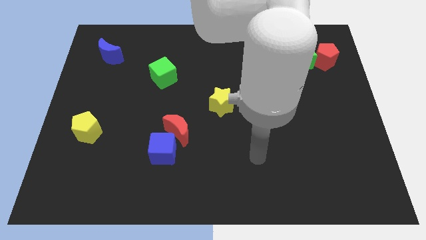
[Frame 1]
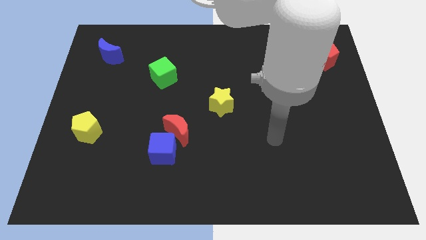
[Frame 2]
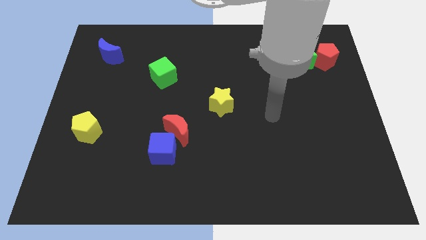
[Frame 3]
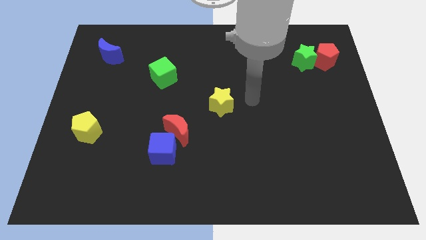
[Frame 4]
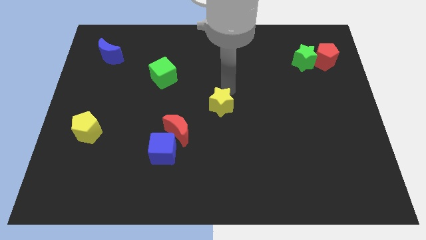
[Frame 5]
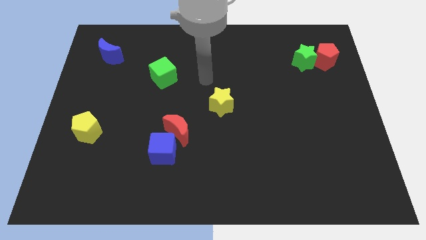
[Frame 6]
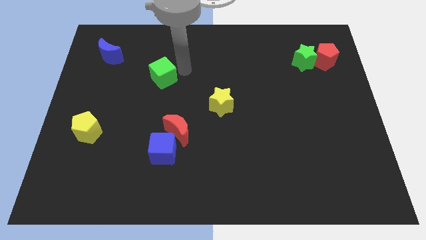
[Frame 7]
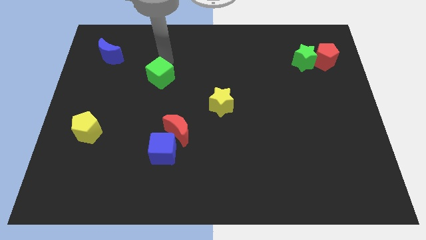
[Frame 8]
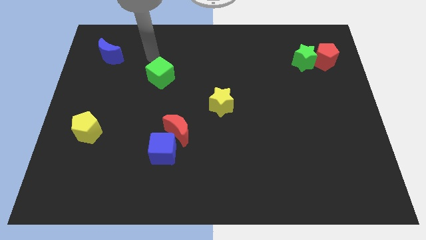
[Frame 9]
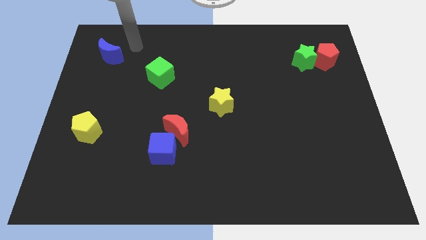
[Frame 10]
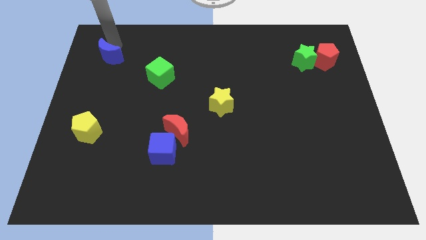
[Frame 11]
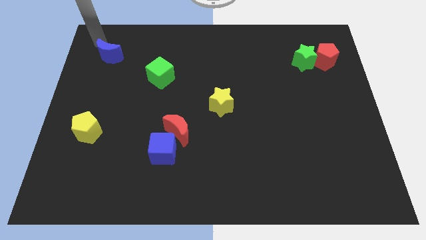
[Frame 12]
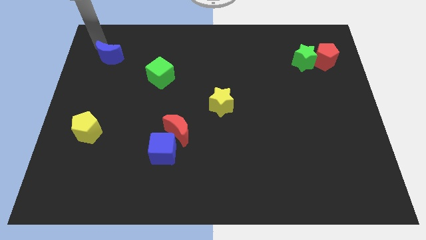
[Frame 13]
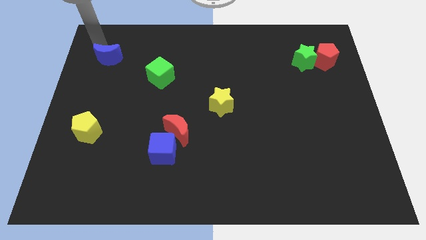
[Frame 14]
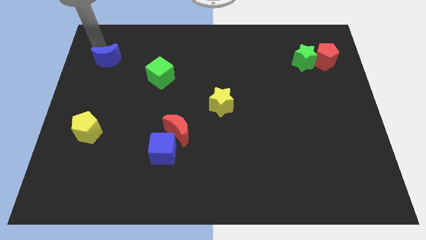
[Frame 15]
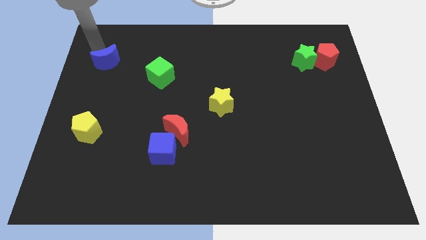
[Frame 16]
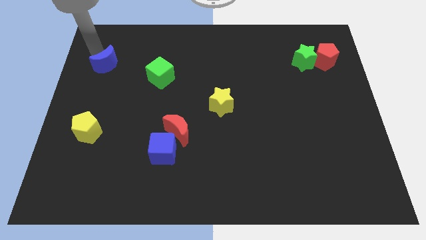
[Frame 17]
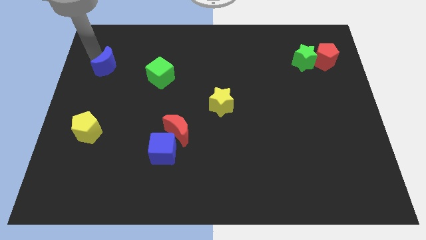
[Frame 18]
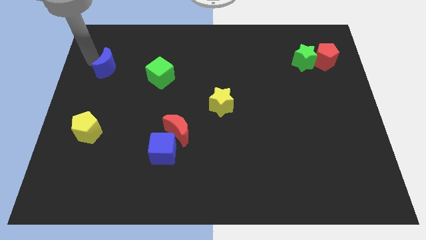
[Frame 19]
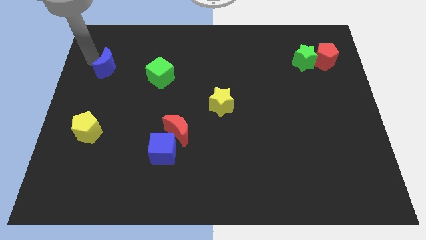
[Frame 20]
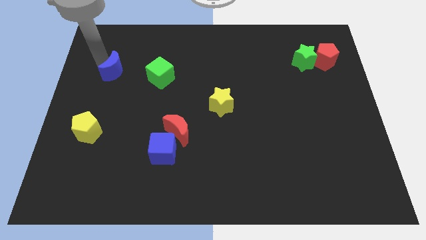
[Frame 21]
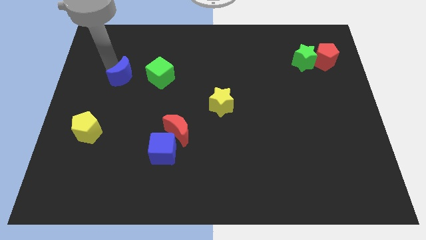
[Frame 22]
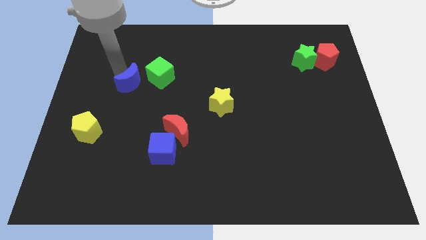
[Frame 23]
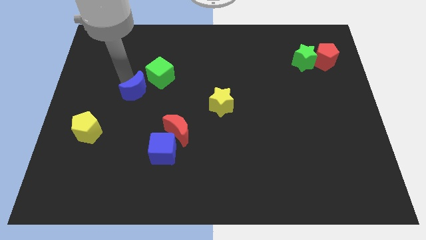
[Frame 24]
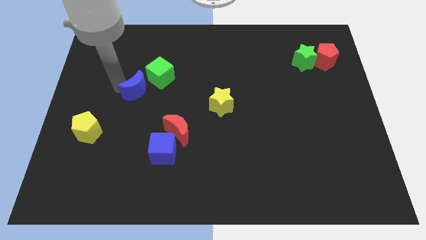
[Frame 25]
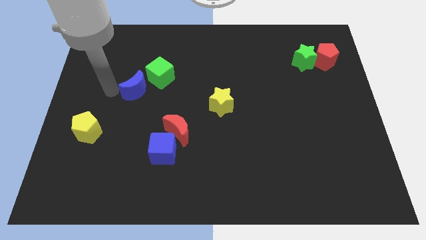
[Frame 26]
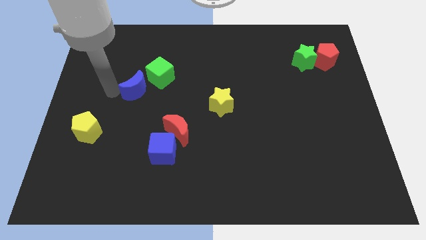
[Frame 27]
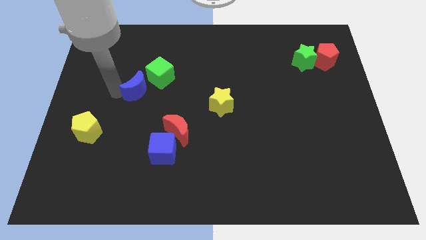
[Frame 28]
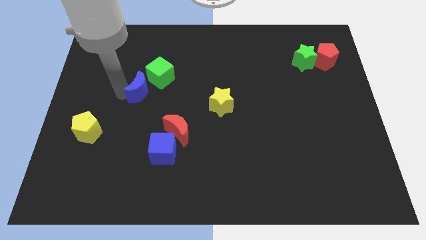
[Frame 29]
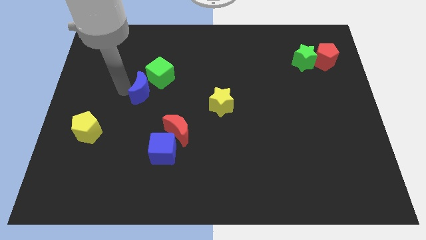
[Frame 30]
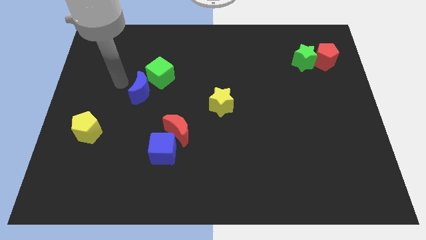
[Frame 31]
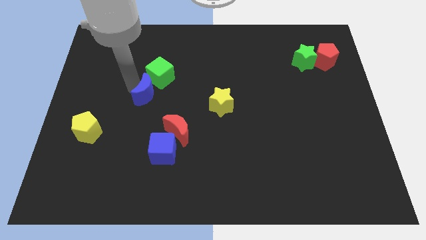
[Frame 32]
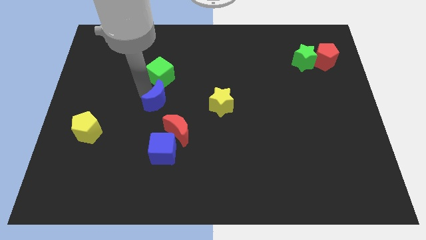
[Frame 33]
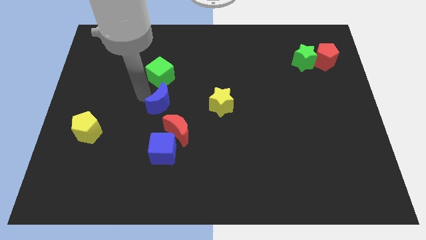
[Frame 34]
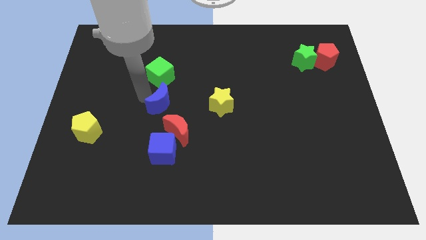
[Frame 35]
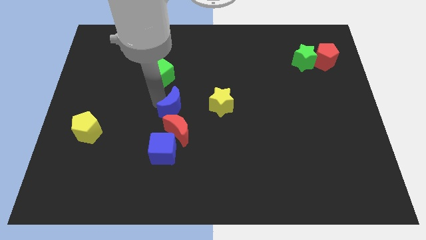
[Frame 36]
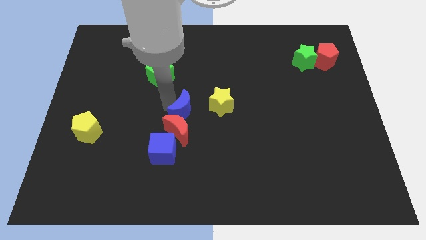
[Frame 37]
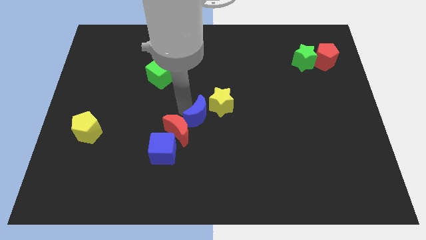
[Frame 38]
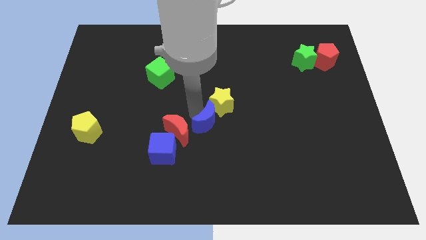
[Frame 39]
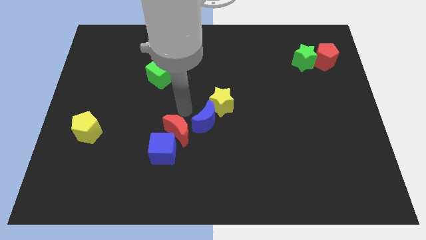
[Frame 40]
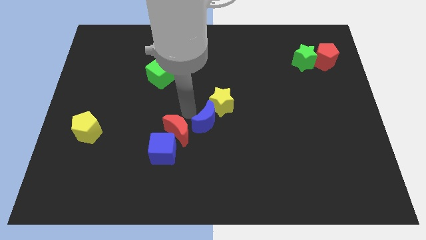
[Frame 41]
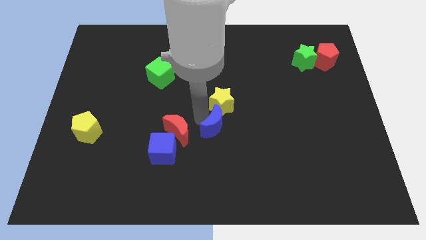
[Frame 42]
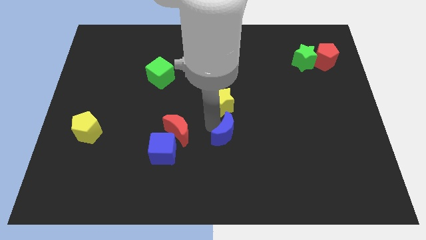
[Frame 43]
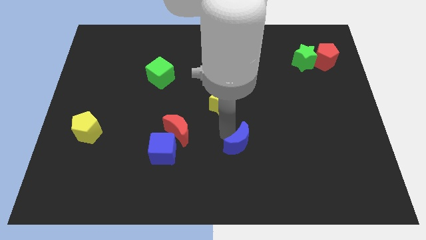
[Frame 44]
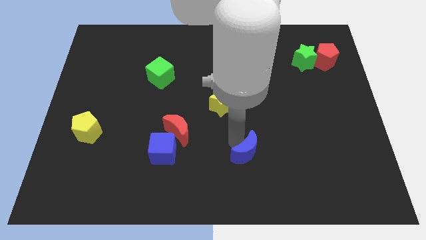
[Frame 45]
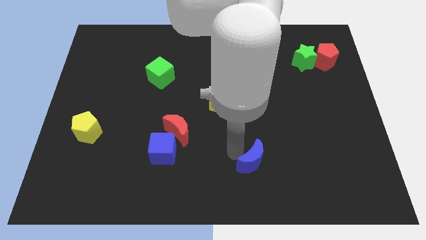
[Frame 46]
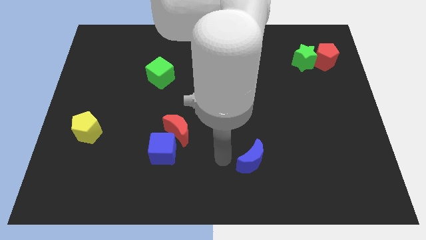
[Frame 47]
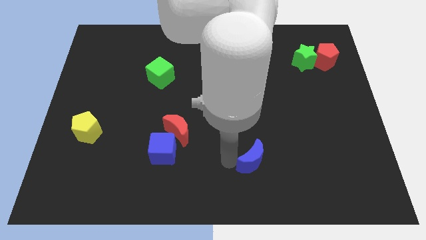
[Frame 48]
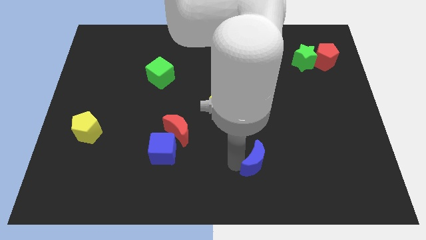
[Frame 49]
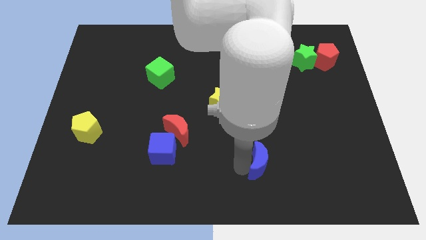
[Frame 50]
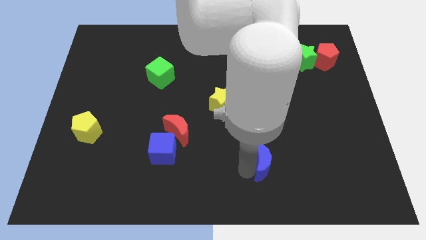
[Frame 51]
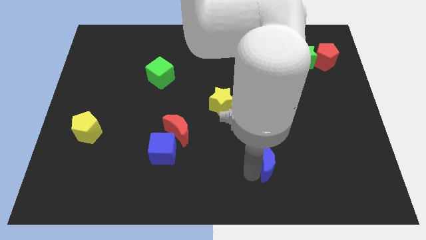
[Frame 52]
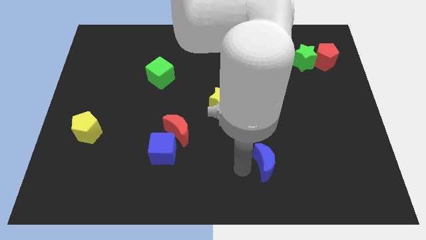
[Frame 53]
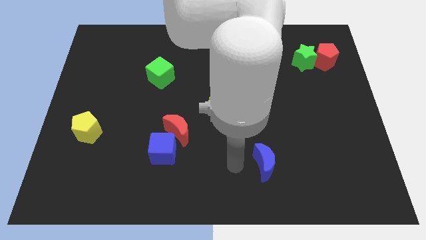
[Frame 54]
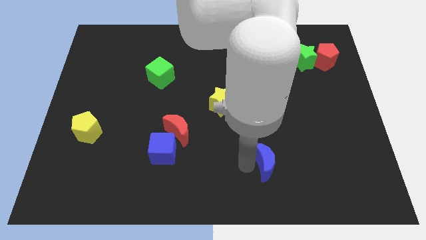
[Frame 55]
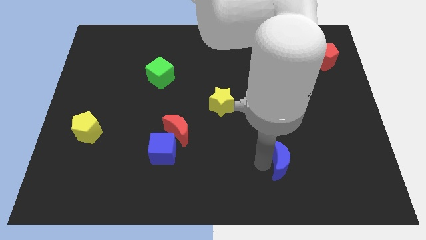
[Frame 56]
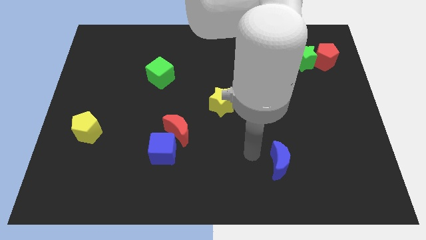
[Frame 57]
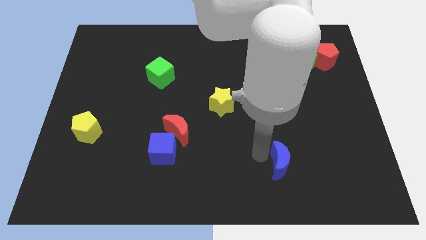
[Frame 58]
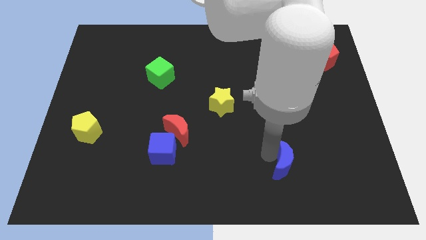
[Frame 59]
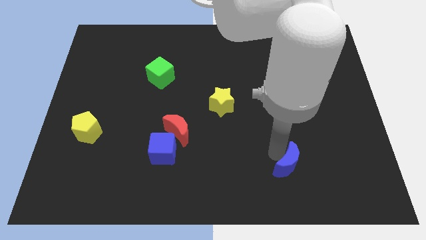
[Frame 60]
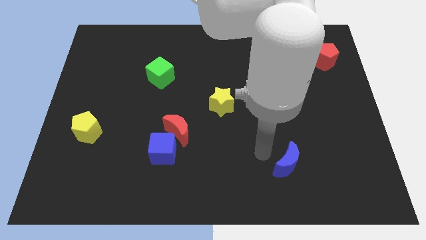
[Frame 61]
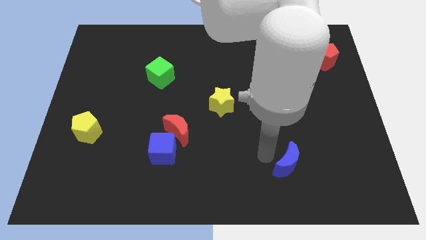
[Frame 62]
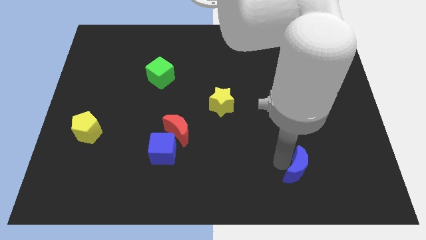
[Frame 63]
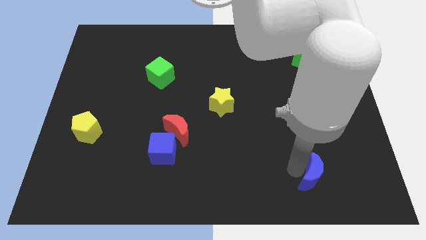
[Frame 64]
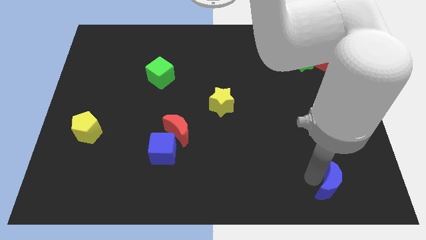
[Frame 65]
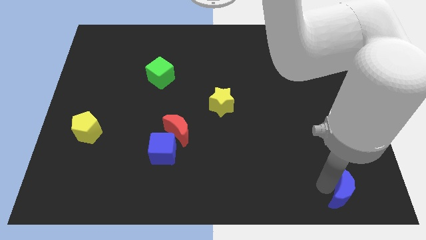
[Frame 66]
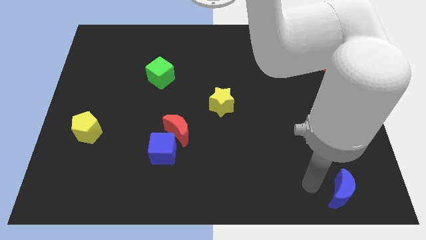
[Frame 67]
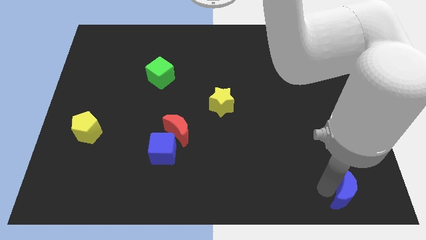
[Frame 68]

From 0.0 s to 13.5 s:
slide the blue moon to the bottom right corner
